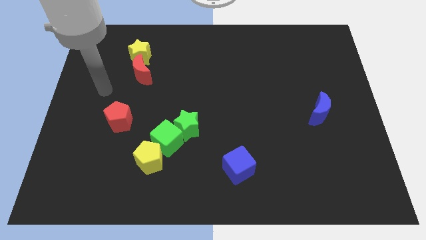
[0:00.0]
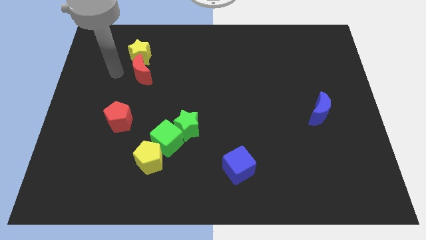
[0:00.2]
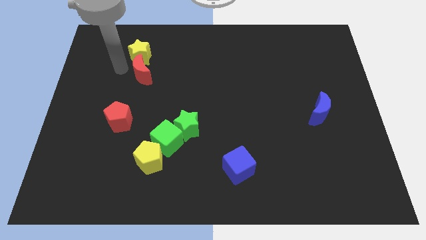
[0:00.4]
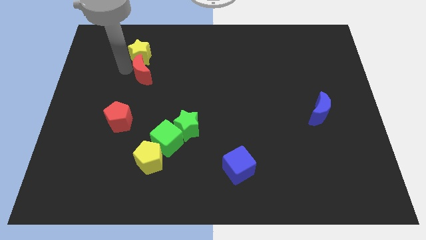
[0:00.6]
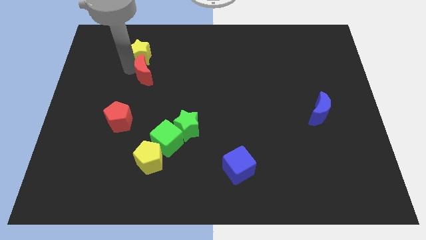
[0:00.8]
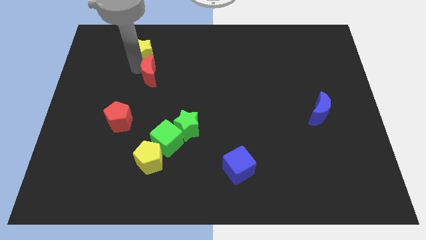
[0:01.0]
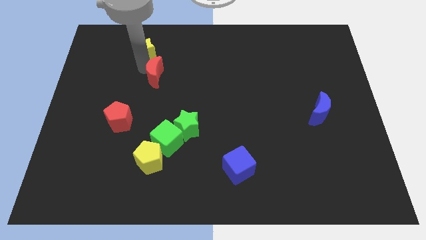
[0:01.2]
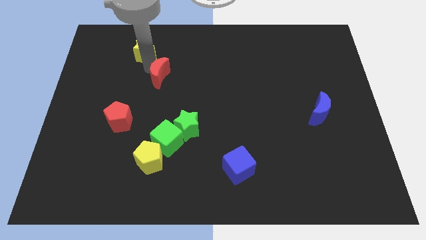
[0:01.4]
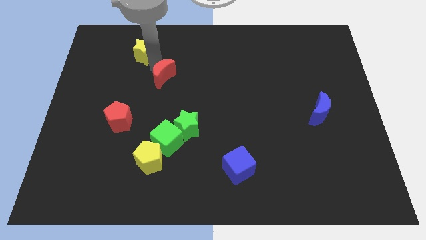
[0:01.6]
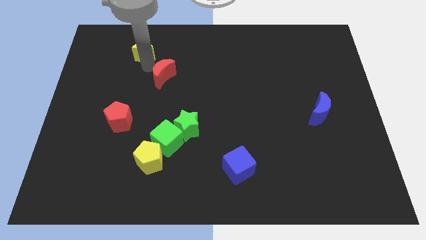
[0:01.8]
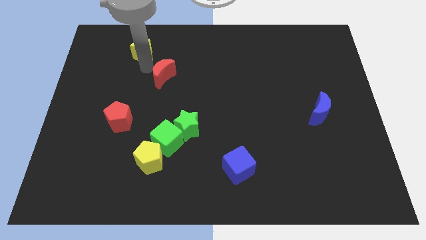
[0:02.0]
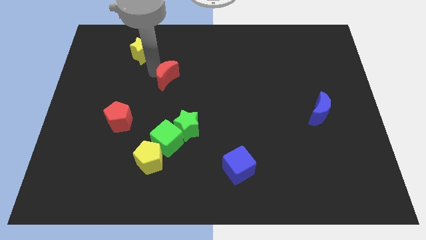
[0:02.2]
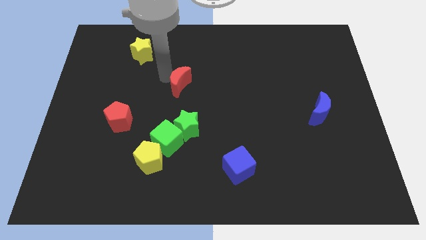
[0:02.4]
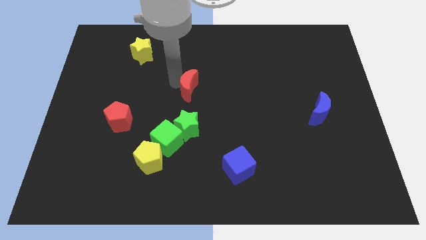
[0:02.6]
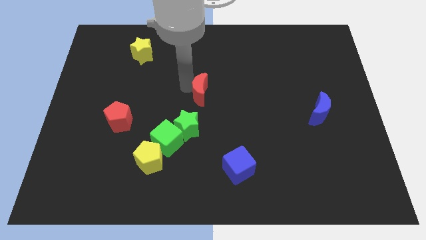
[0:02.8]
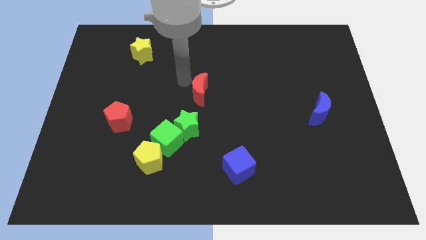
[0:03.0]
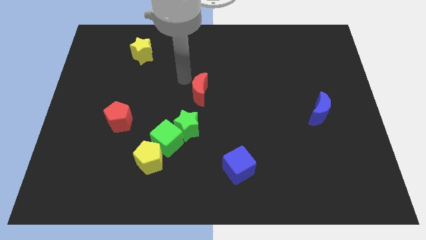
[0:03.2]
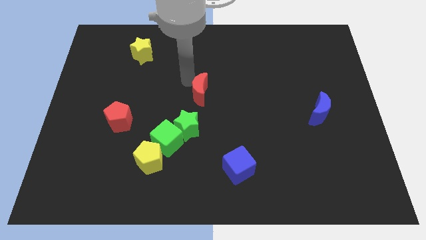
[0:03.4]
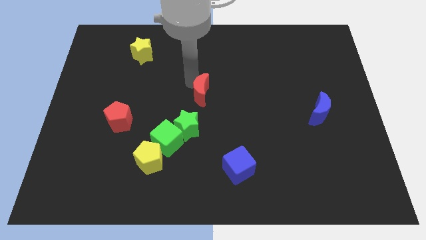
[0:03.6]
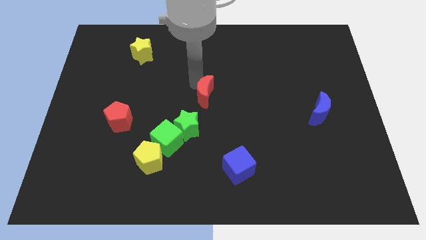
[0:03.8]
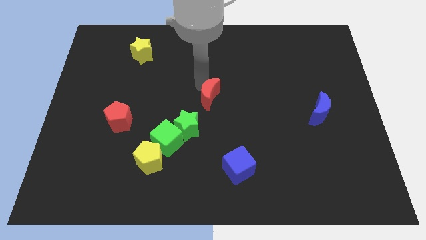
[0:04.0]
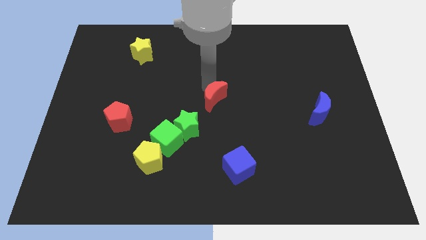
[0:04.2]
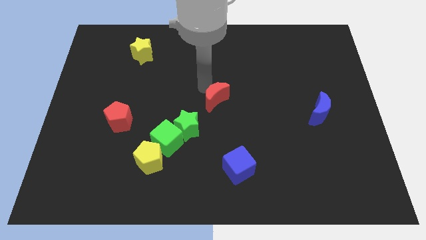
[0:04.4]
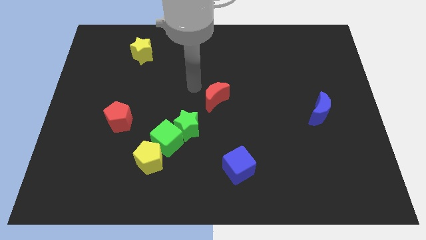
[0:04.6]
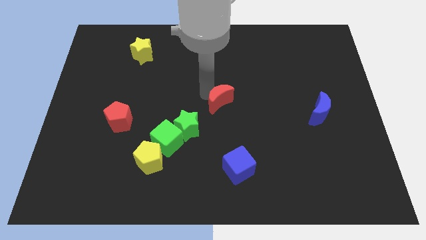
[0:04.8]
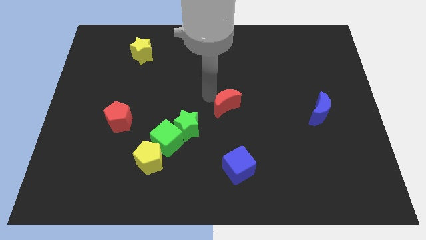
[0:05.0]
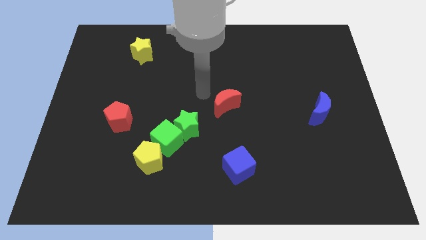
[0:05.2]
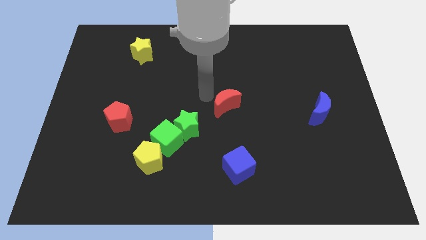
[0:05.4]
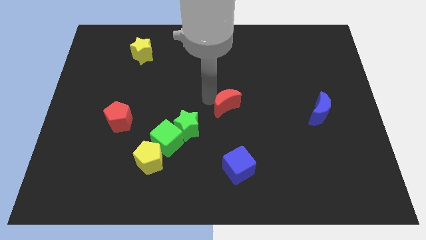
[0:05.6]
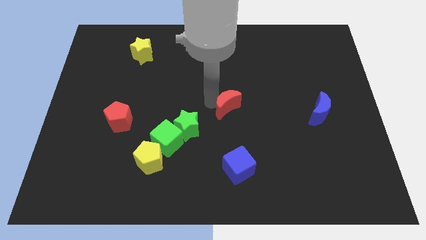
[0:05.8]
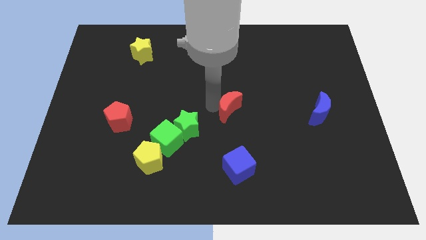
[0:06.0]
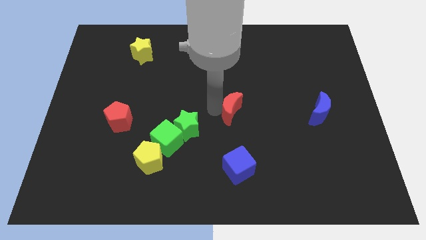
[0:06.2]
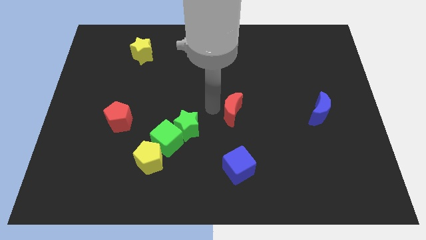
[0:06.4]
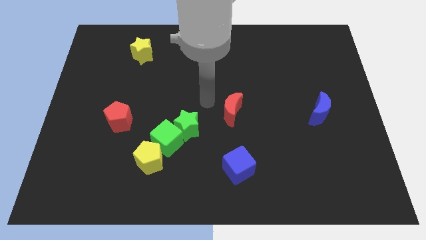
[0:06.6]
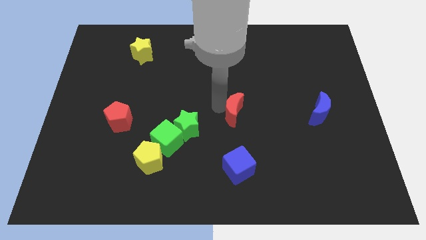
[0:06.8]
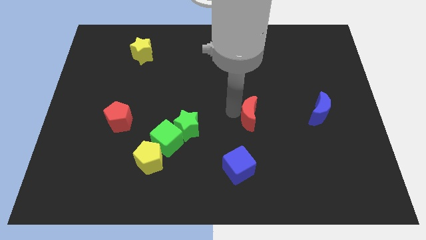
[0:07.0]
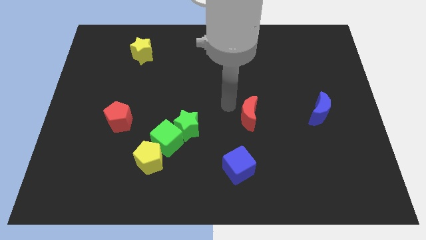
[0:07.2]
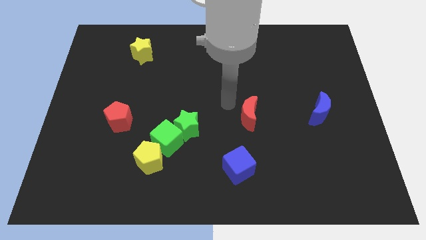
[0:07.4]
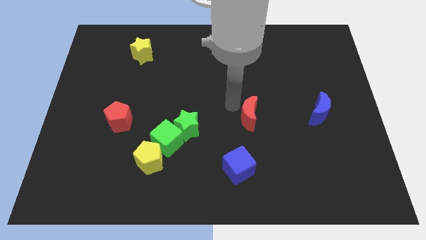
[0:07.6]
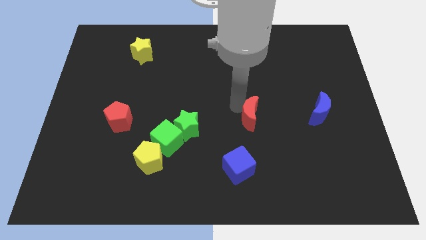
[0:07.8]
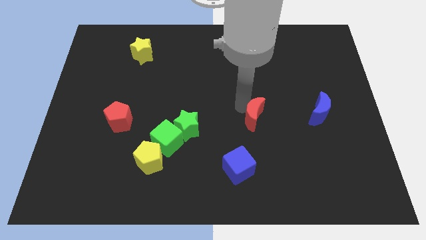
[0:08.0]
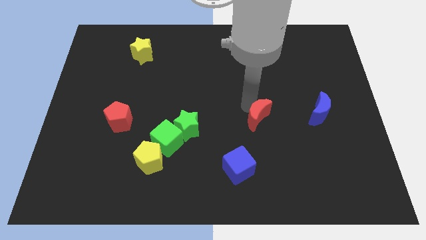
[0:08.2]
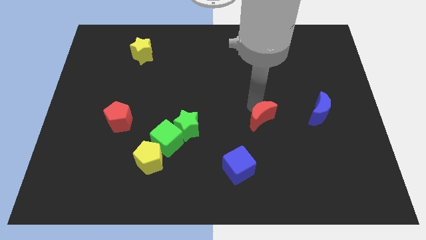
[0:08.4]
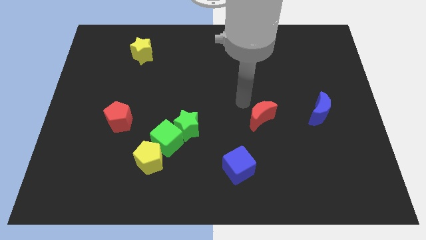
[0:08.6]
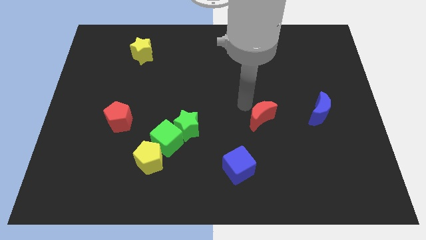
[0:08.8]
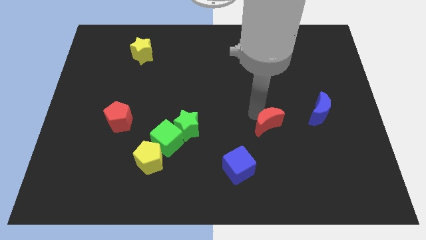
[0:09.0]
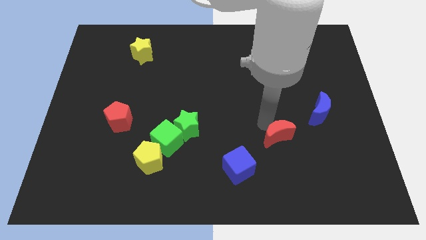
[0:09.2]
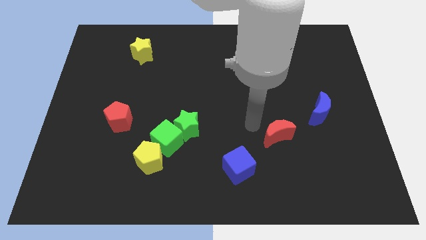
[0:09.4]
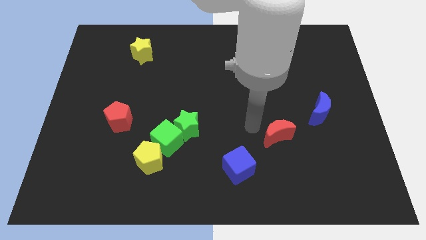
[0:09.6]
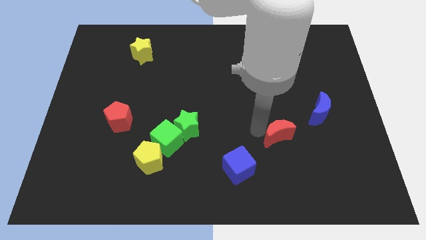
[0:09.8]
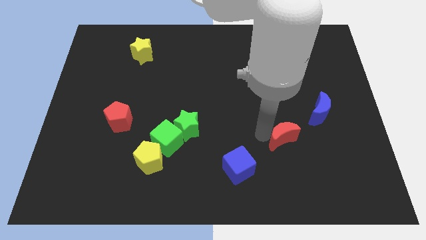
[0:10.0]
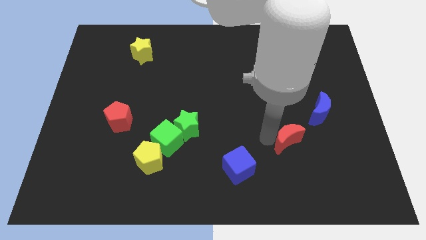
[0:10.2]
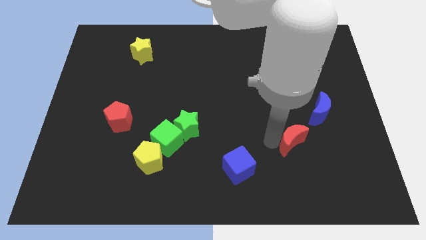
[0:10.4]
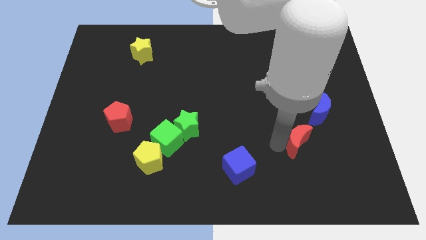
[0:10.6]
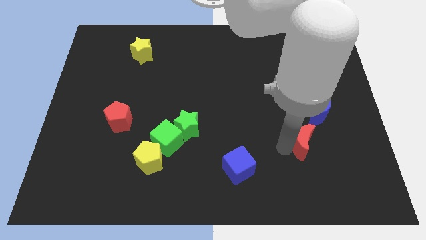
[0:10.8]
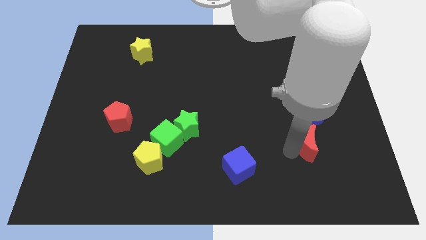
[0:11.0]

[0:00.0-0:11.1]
move the red moon below the blue moon

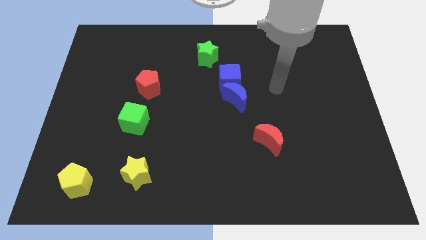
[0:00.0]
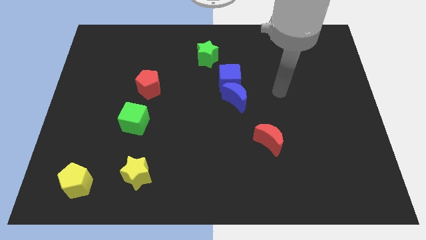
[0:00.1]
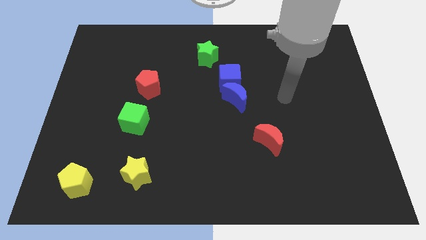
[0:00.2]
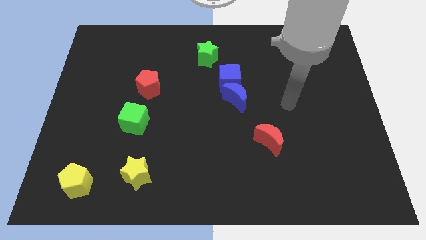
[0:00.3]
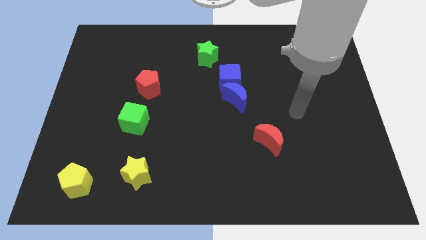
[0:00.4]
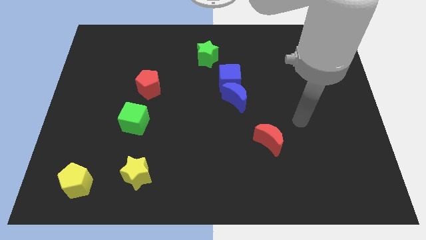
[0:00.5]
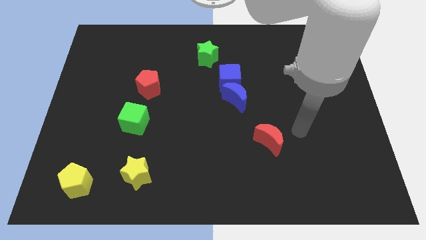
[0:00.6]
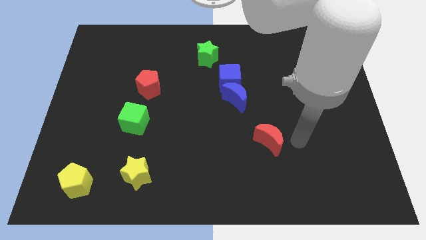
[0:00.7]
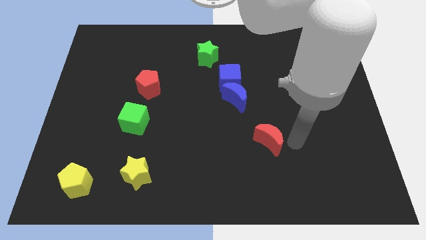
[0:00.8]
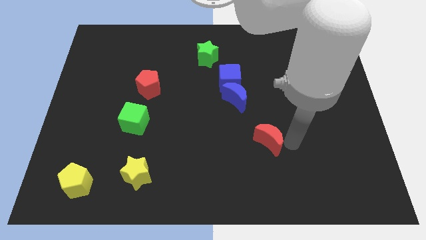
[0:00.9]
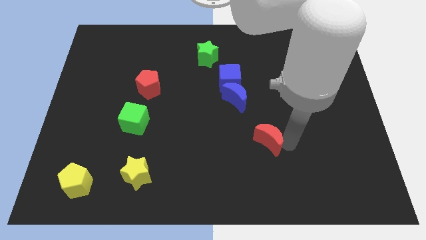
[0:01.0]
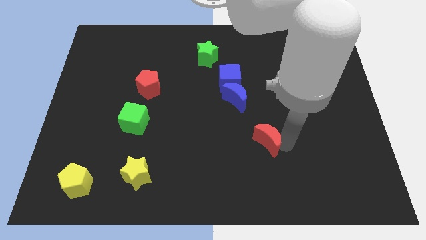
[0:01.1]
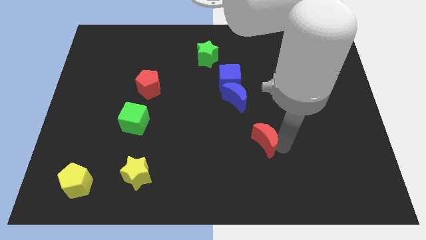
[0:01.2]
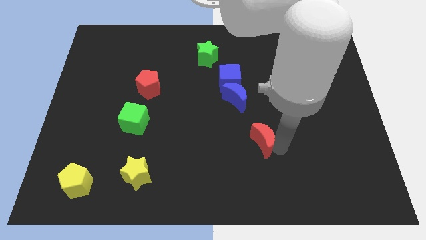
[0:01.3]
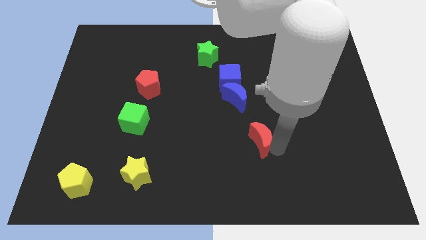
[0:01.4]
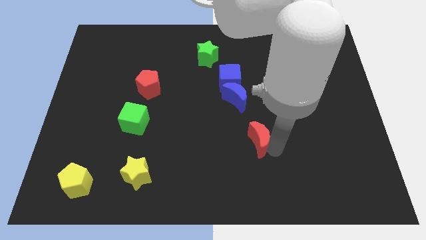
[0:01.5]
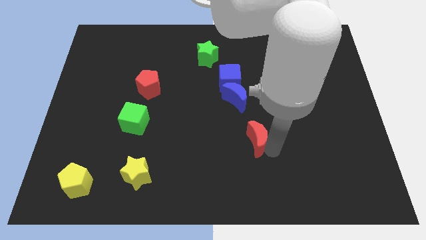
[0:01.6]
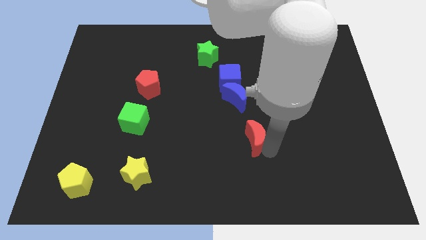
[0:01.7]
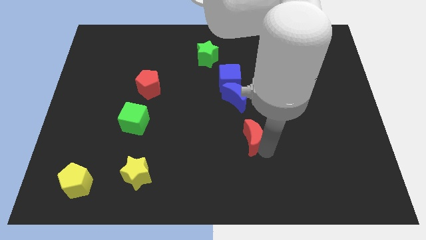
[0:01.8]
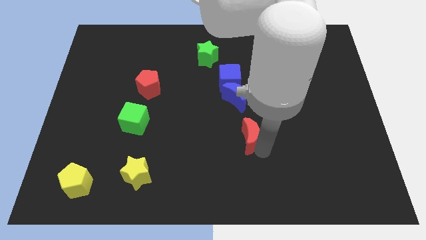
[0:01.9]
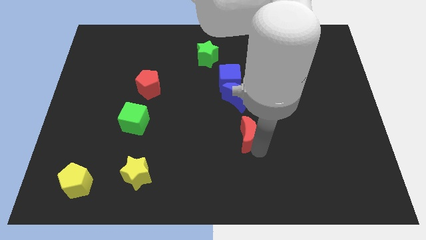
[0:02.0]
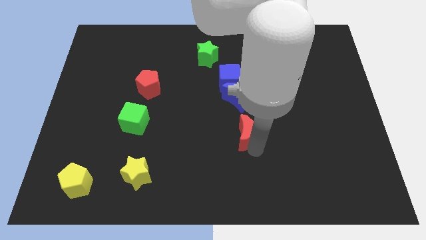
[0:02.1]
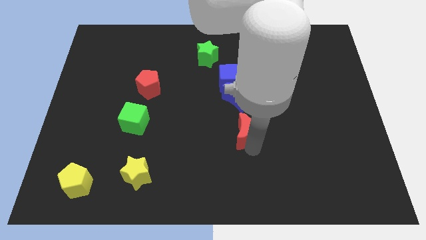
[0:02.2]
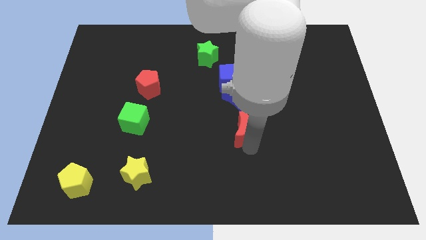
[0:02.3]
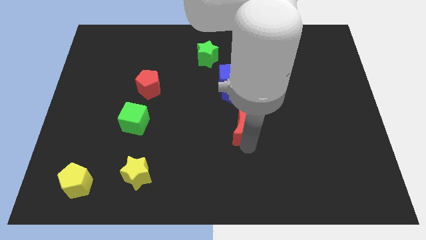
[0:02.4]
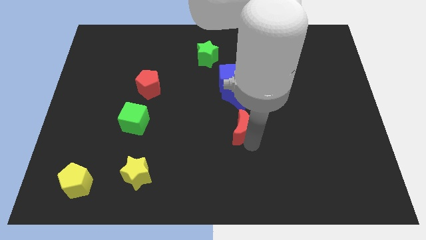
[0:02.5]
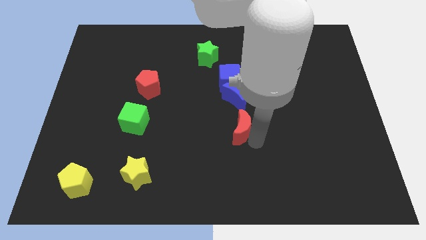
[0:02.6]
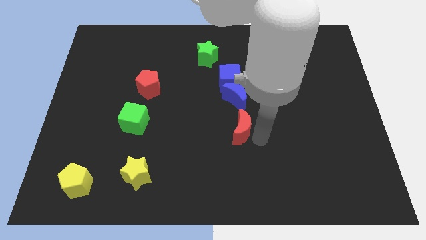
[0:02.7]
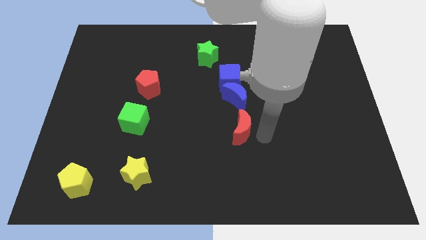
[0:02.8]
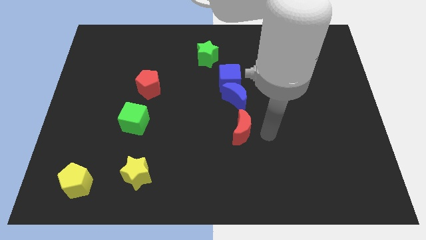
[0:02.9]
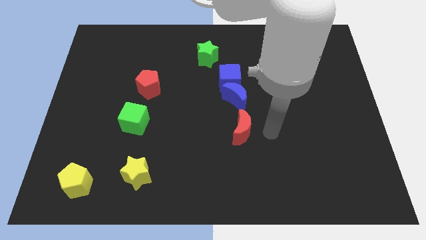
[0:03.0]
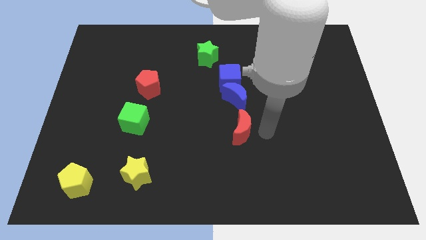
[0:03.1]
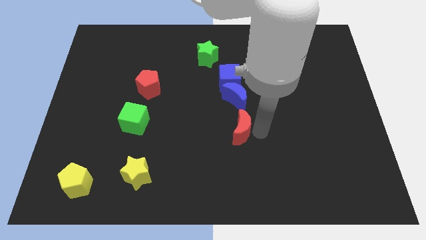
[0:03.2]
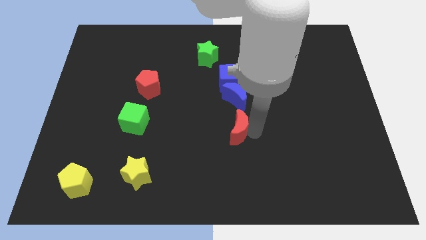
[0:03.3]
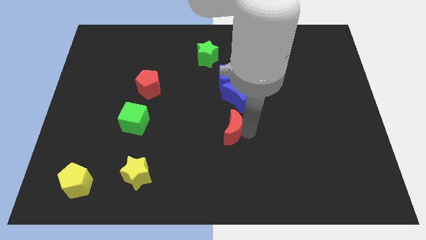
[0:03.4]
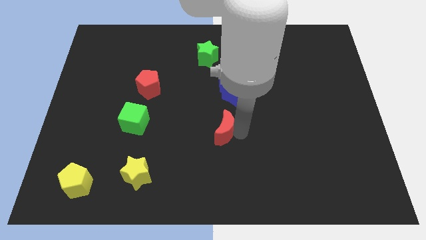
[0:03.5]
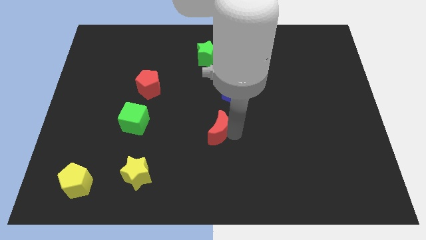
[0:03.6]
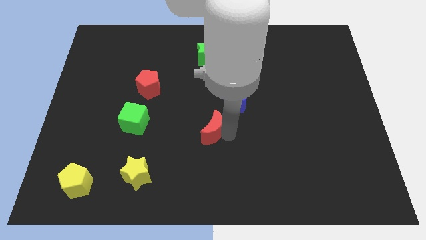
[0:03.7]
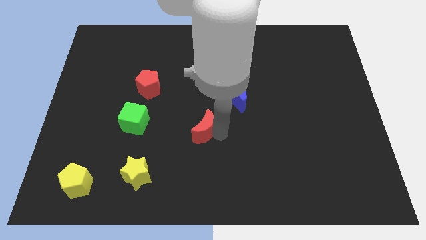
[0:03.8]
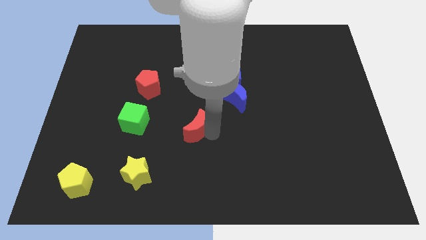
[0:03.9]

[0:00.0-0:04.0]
put the red moon right of the green cube
